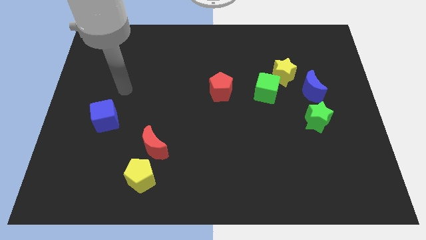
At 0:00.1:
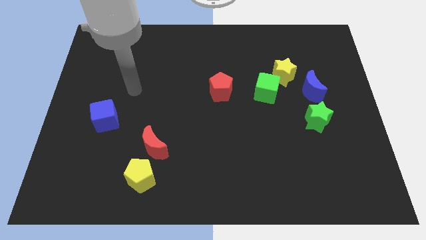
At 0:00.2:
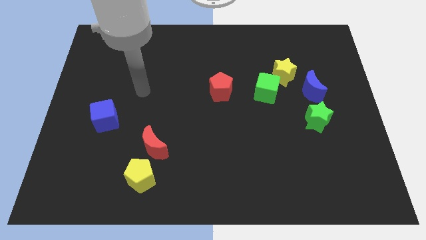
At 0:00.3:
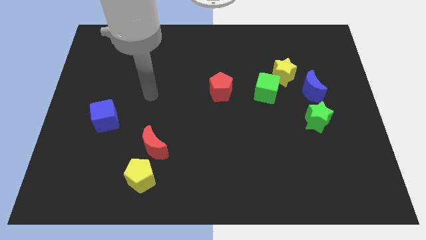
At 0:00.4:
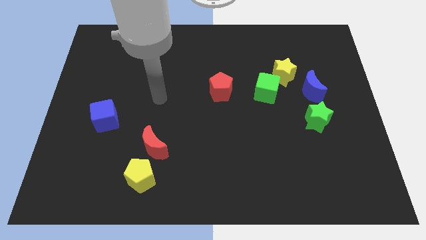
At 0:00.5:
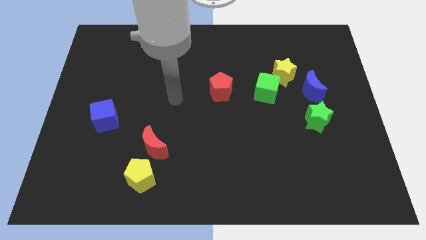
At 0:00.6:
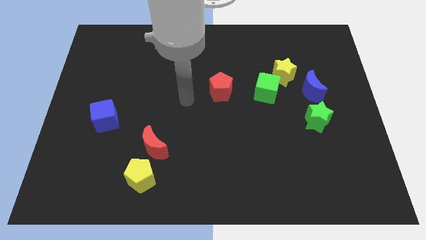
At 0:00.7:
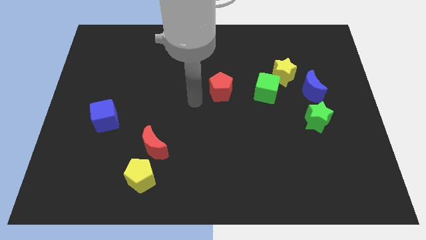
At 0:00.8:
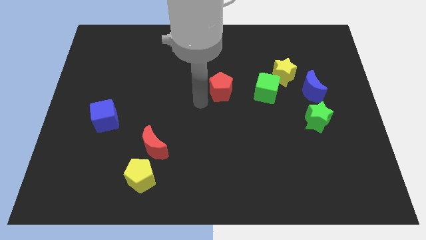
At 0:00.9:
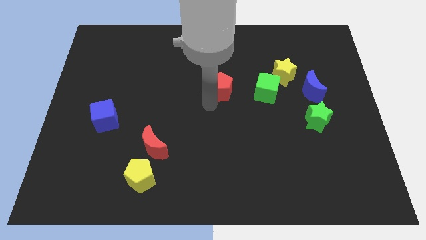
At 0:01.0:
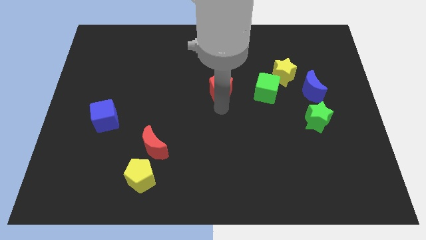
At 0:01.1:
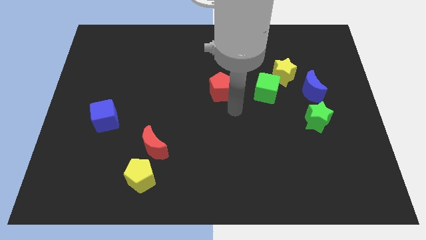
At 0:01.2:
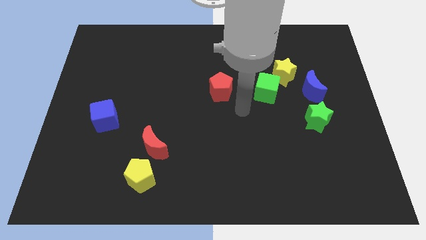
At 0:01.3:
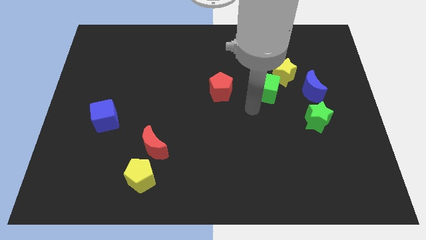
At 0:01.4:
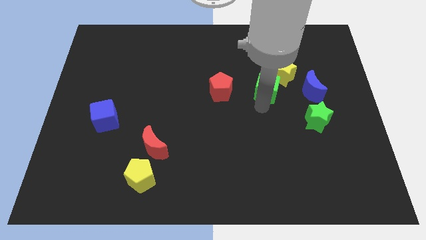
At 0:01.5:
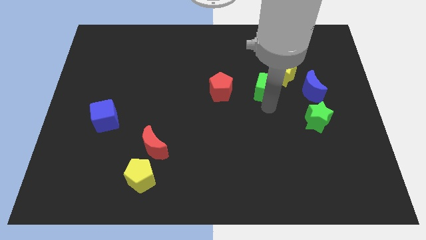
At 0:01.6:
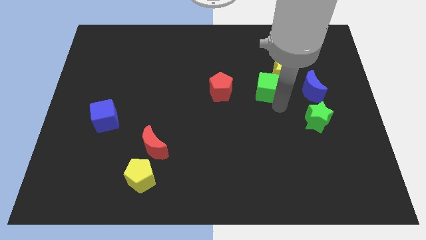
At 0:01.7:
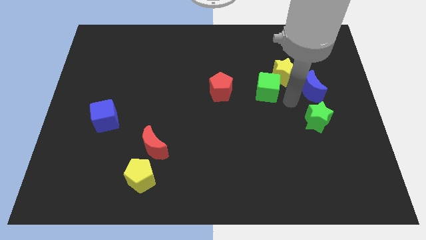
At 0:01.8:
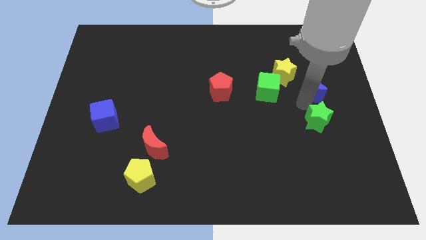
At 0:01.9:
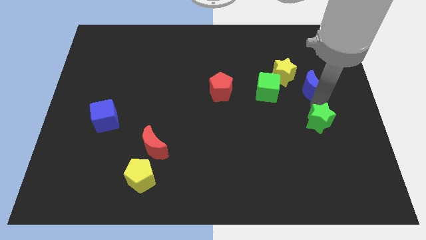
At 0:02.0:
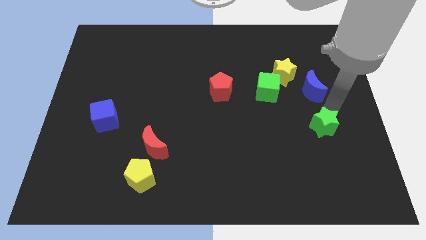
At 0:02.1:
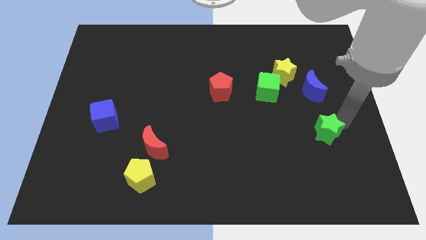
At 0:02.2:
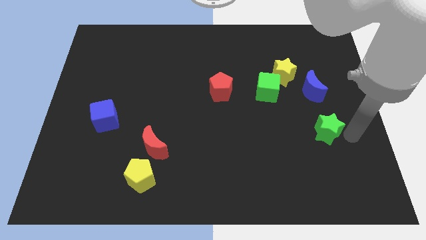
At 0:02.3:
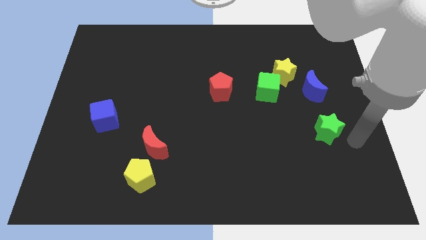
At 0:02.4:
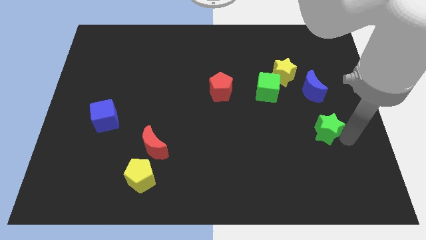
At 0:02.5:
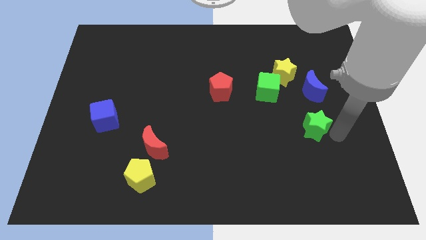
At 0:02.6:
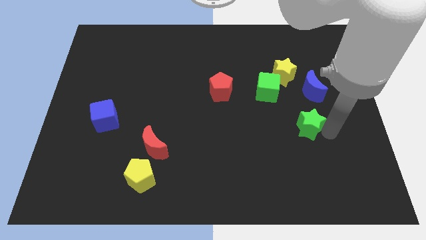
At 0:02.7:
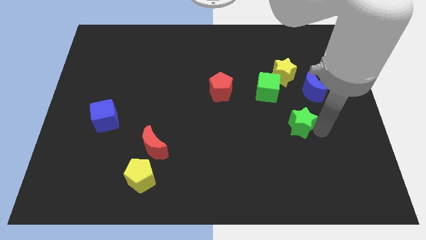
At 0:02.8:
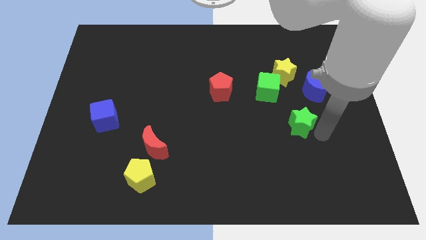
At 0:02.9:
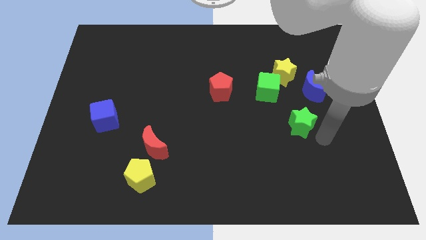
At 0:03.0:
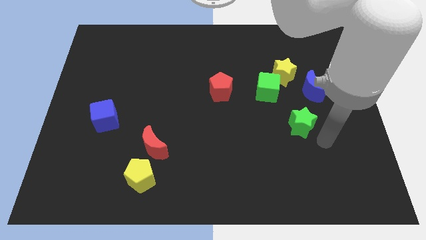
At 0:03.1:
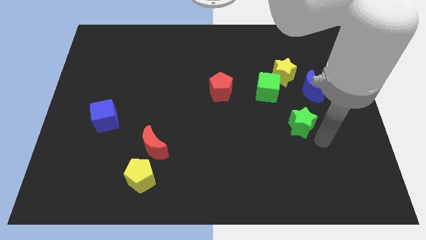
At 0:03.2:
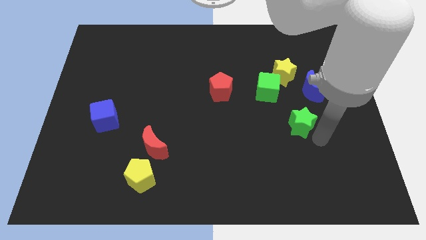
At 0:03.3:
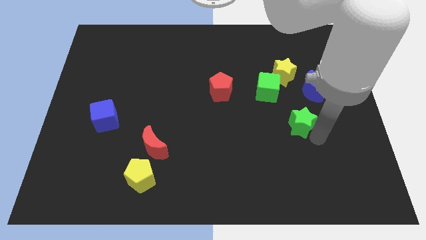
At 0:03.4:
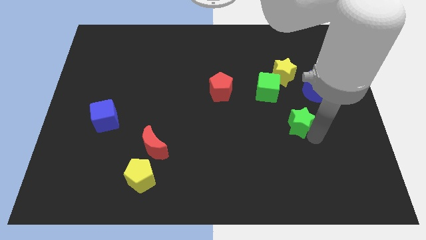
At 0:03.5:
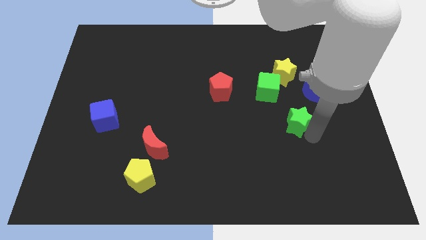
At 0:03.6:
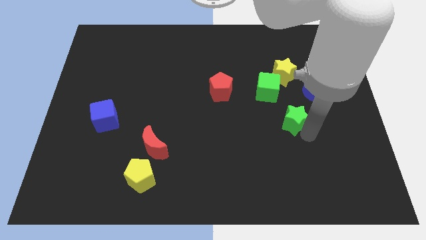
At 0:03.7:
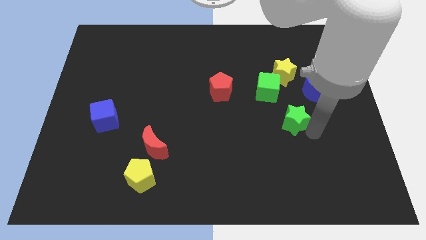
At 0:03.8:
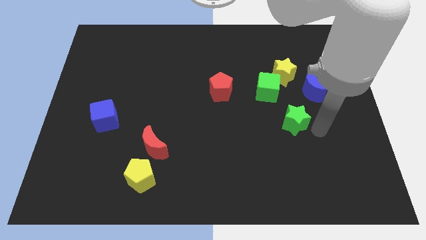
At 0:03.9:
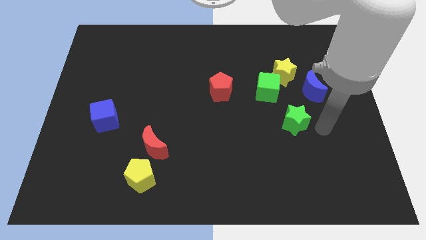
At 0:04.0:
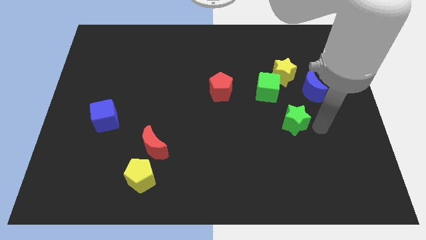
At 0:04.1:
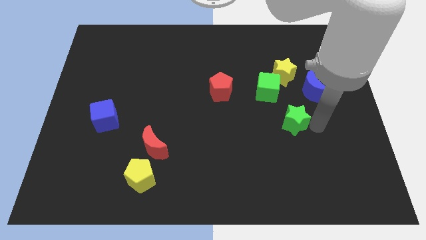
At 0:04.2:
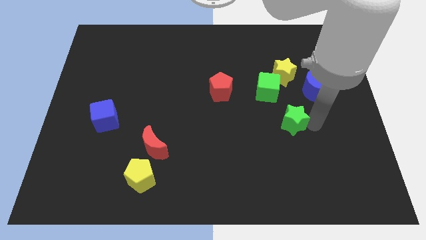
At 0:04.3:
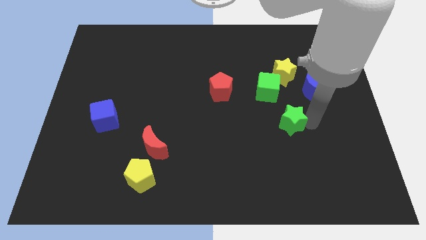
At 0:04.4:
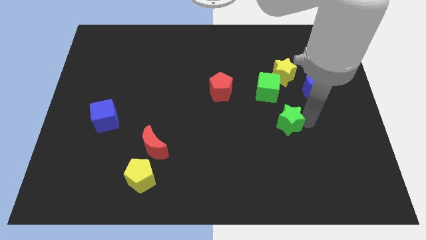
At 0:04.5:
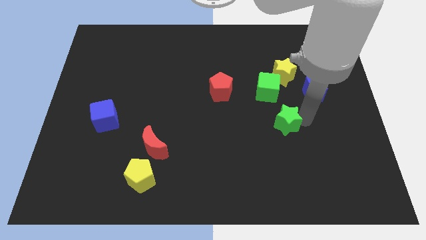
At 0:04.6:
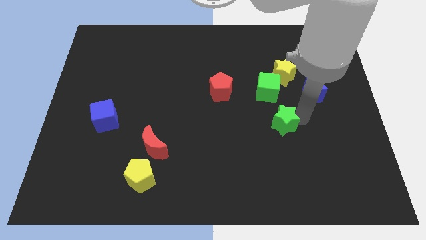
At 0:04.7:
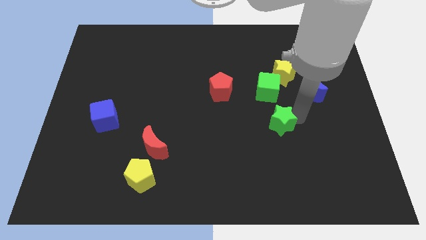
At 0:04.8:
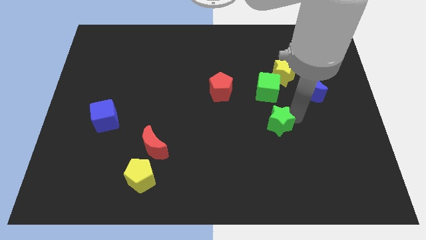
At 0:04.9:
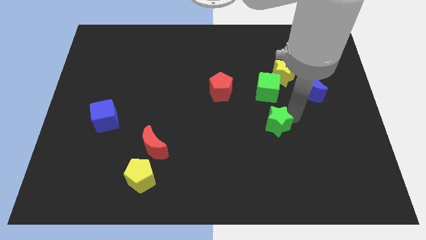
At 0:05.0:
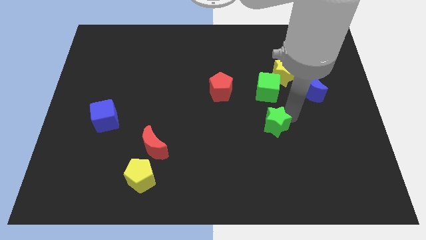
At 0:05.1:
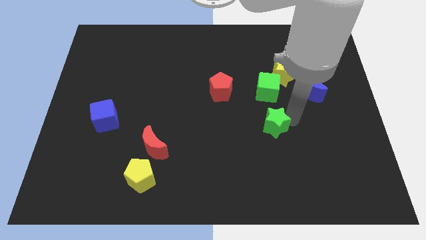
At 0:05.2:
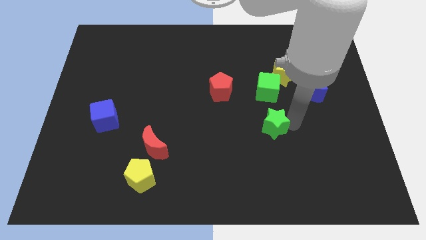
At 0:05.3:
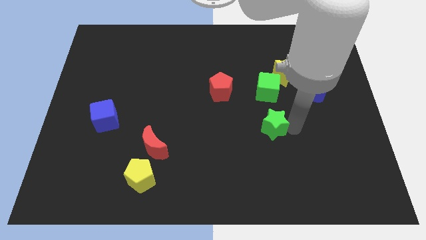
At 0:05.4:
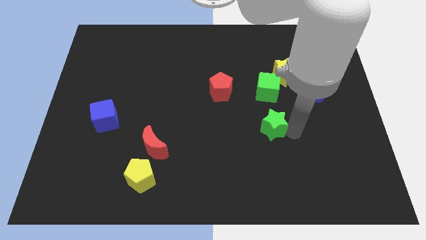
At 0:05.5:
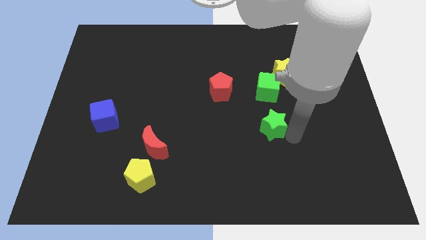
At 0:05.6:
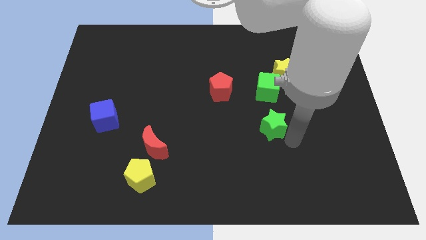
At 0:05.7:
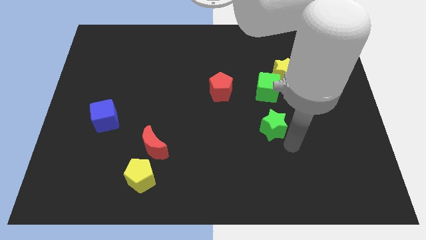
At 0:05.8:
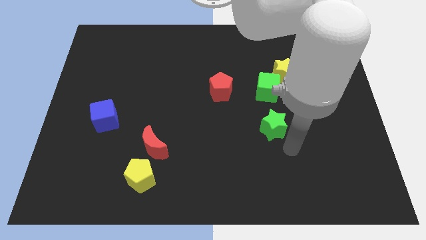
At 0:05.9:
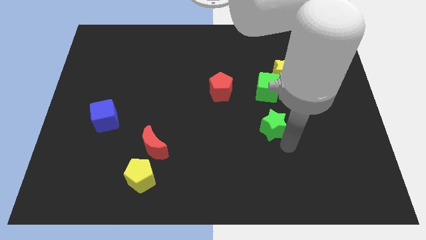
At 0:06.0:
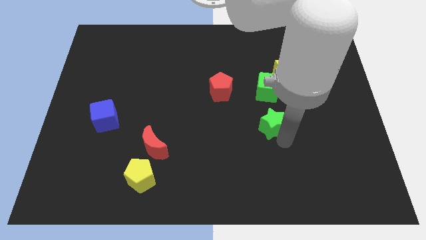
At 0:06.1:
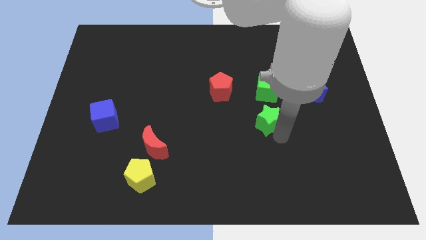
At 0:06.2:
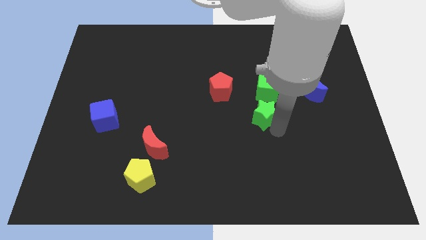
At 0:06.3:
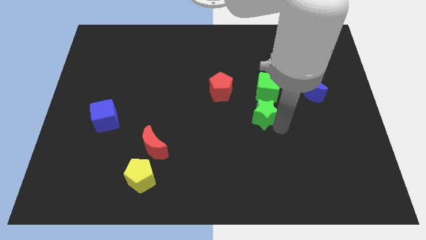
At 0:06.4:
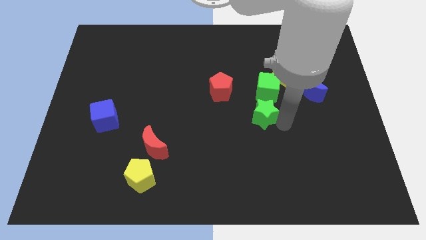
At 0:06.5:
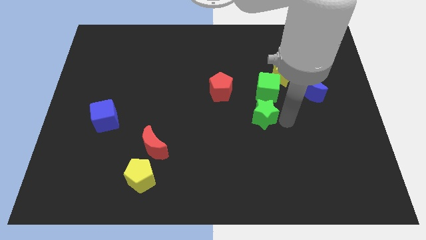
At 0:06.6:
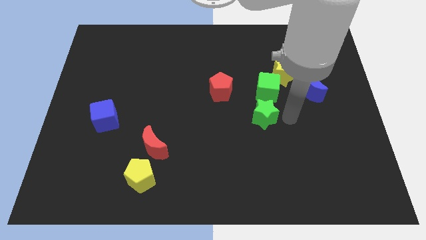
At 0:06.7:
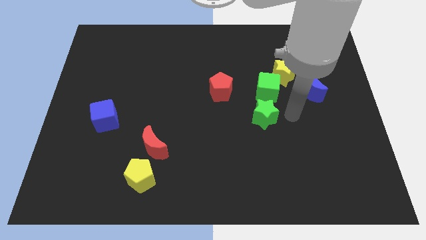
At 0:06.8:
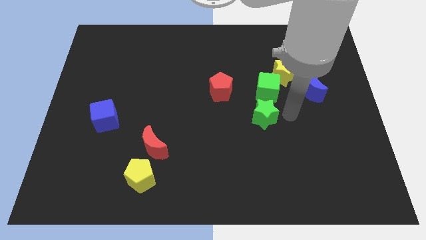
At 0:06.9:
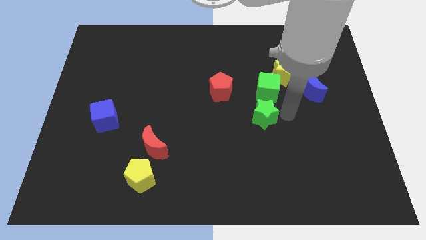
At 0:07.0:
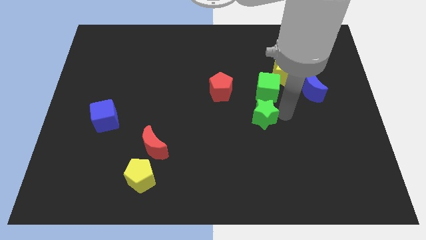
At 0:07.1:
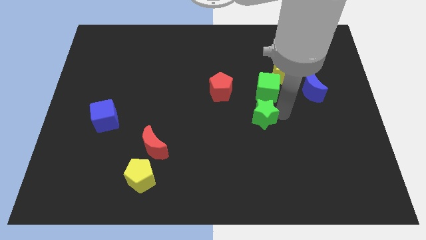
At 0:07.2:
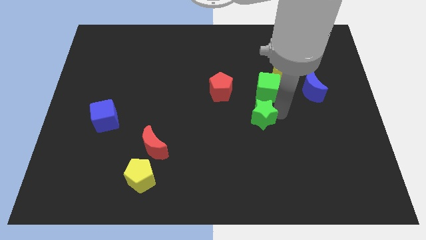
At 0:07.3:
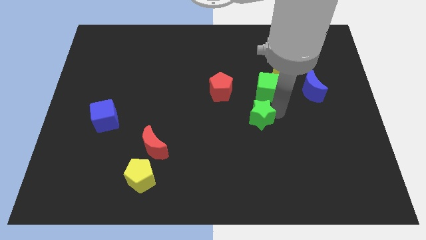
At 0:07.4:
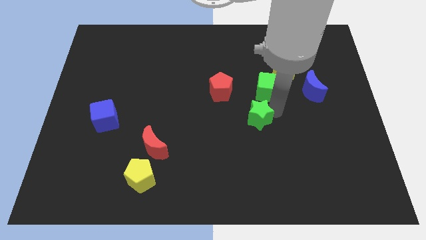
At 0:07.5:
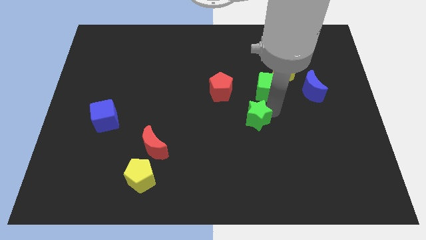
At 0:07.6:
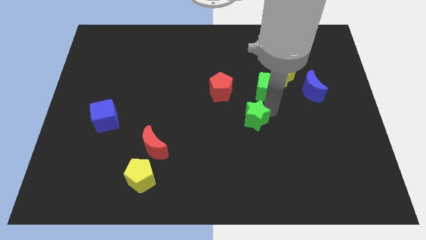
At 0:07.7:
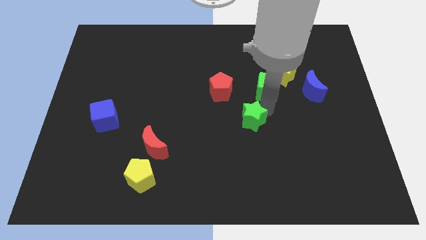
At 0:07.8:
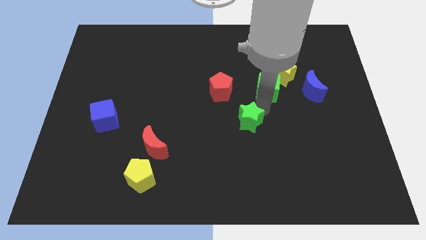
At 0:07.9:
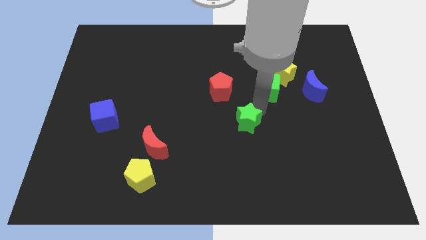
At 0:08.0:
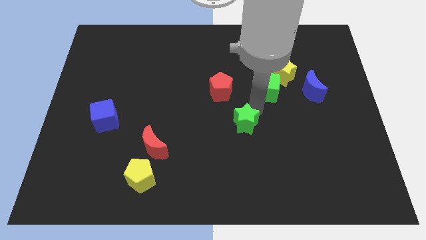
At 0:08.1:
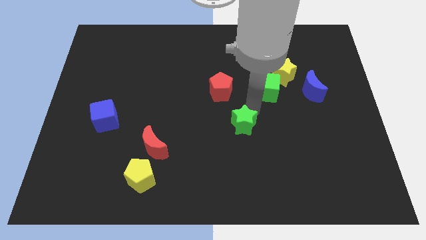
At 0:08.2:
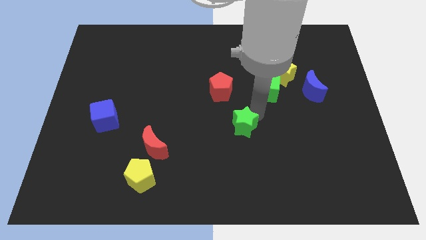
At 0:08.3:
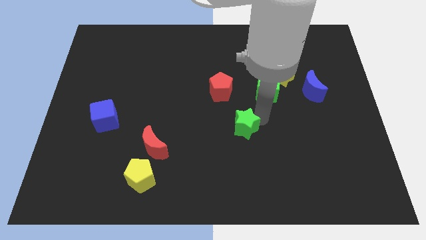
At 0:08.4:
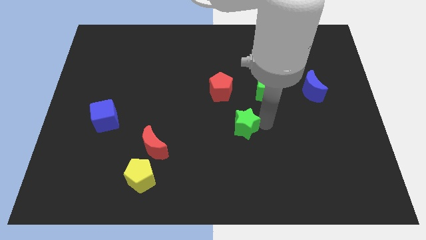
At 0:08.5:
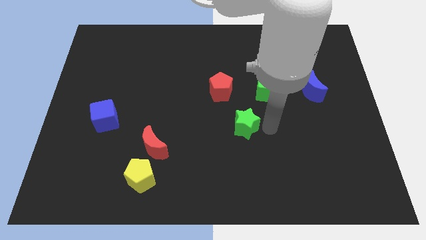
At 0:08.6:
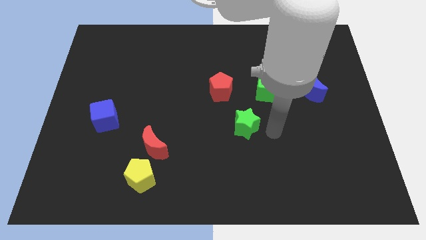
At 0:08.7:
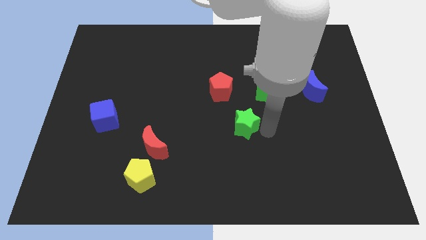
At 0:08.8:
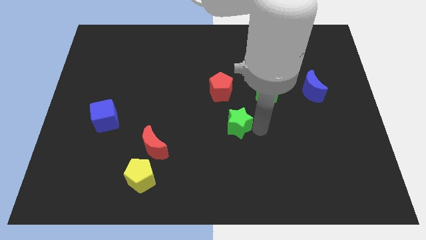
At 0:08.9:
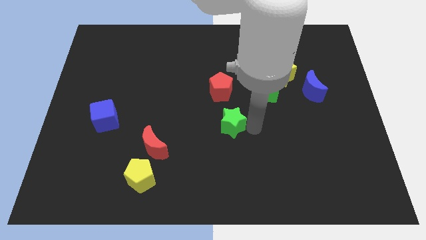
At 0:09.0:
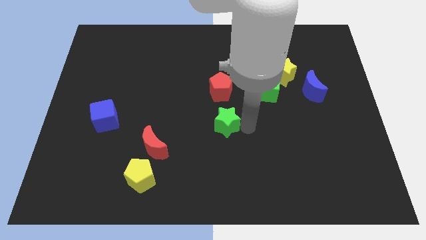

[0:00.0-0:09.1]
move the green star left
